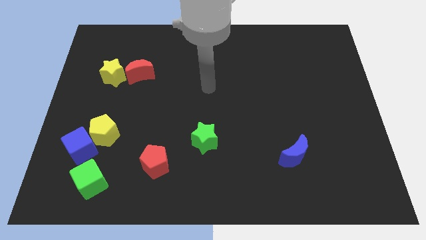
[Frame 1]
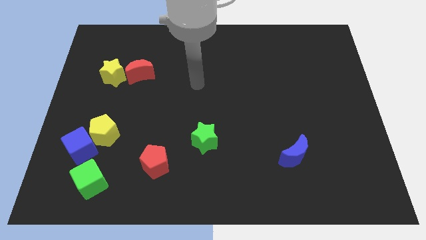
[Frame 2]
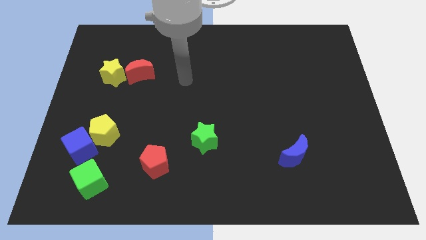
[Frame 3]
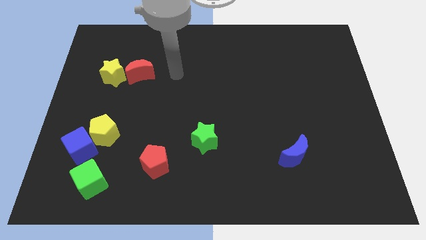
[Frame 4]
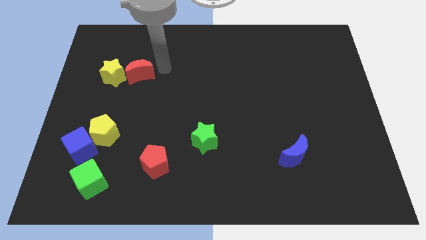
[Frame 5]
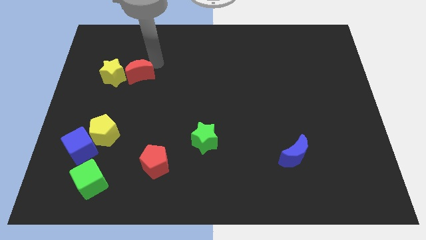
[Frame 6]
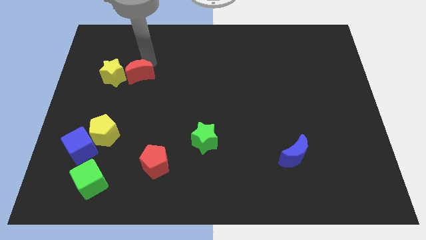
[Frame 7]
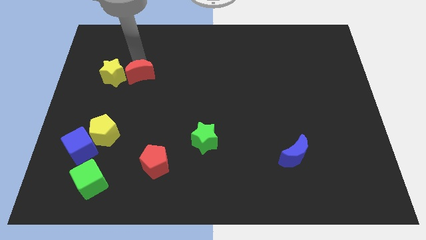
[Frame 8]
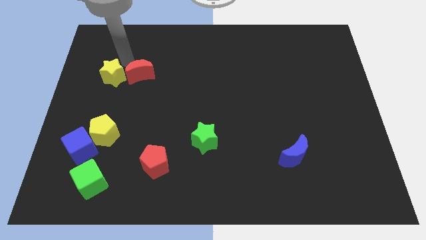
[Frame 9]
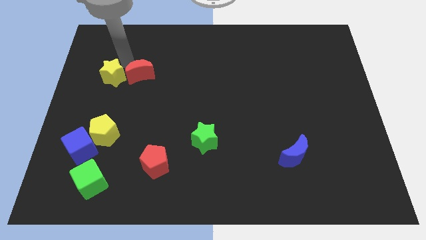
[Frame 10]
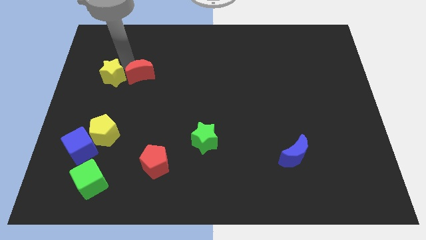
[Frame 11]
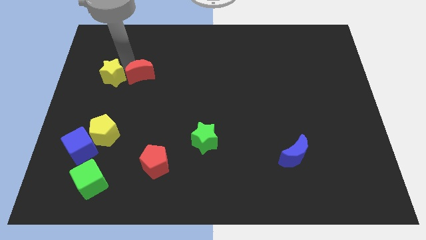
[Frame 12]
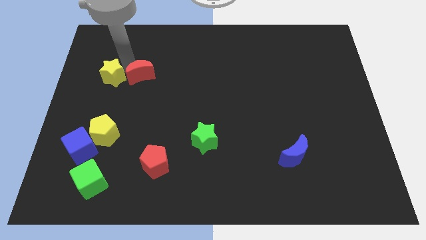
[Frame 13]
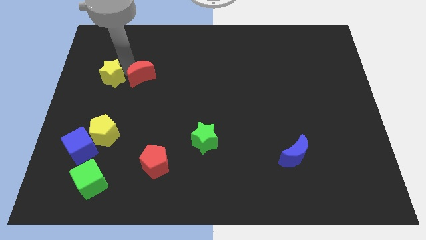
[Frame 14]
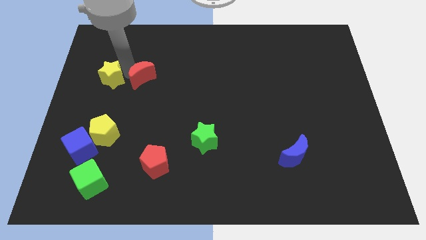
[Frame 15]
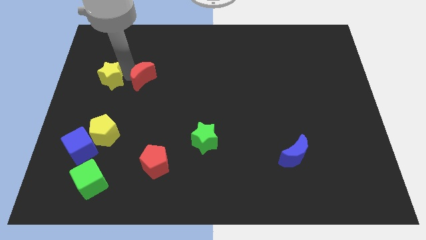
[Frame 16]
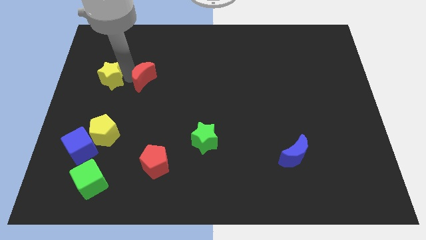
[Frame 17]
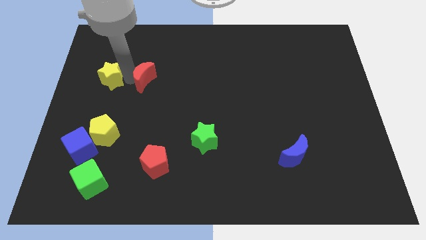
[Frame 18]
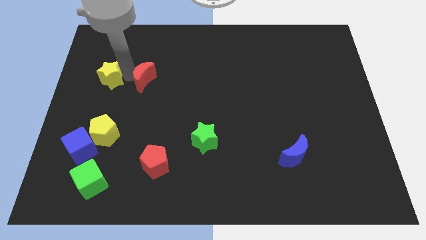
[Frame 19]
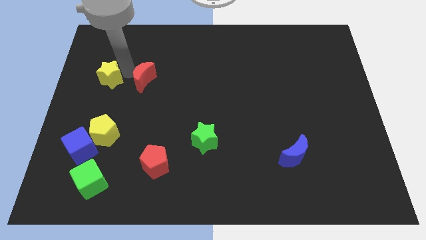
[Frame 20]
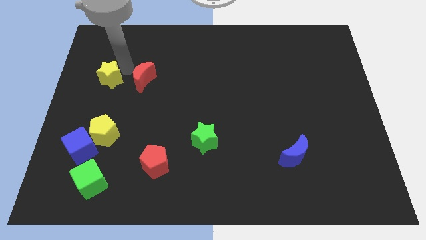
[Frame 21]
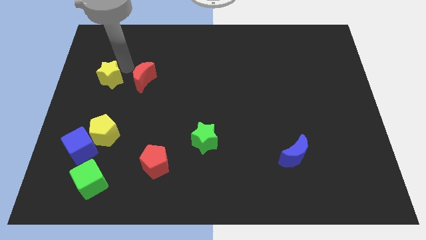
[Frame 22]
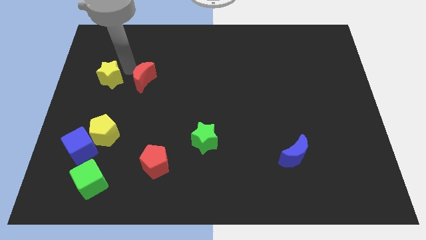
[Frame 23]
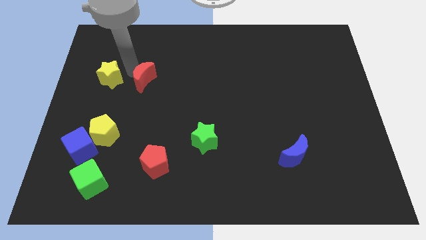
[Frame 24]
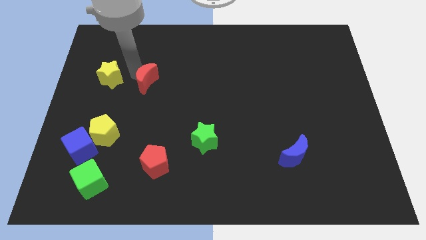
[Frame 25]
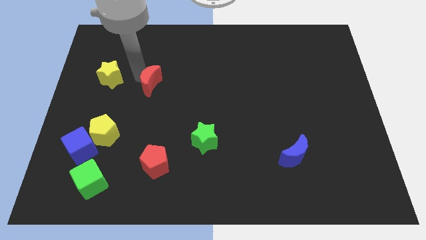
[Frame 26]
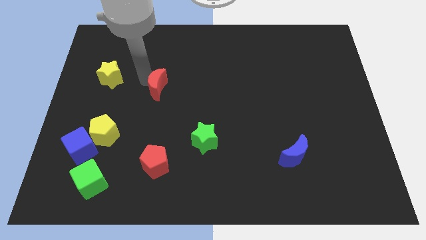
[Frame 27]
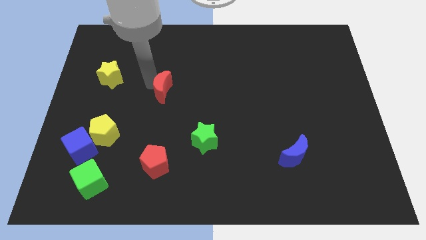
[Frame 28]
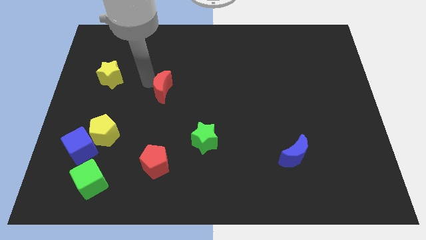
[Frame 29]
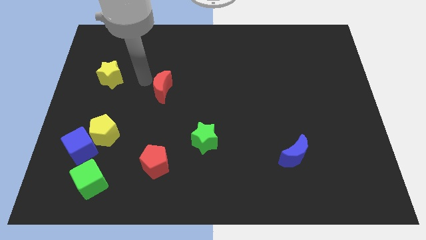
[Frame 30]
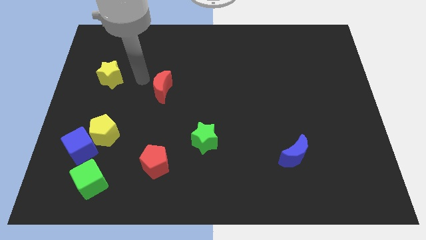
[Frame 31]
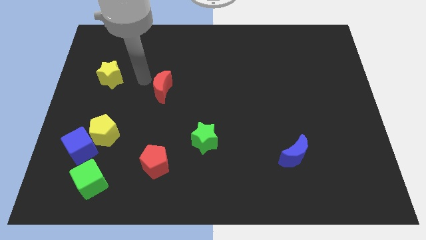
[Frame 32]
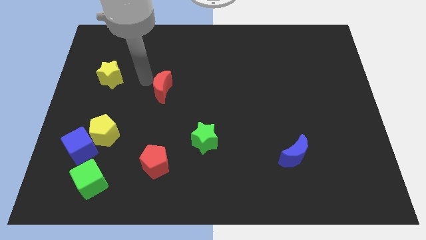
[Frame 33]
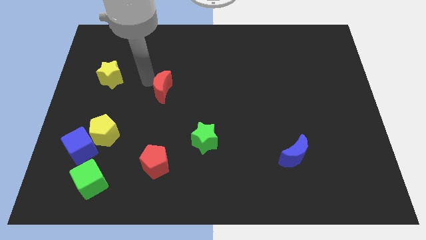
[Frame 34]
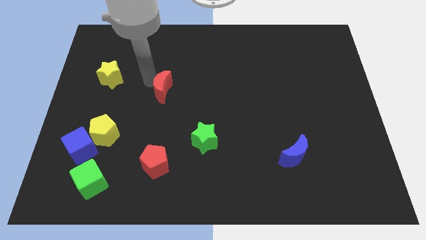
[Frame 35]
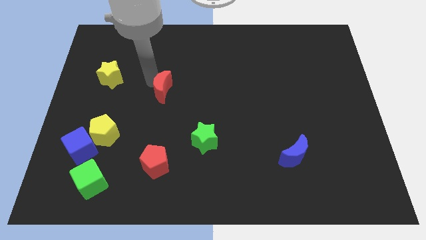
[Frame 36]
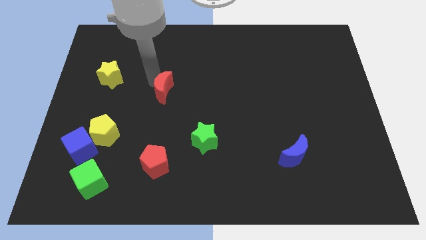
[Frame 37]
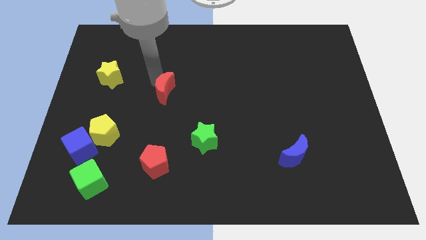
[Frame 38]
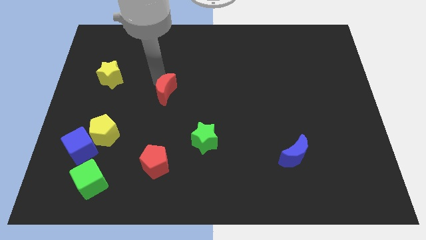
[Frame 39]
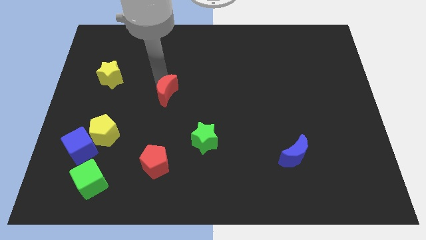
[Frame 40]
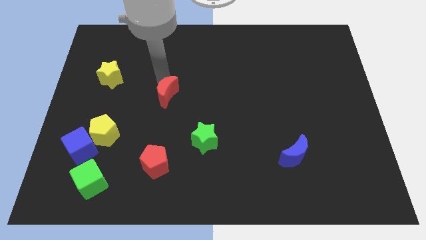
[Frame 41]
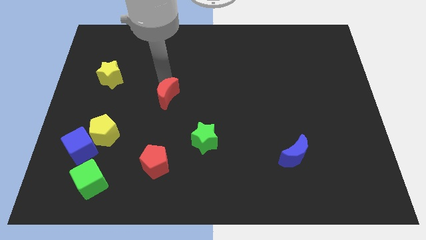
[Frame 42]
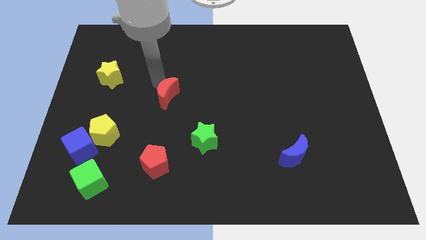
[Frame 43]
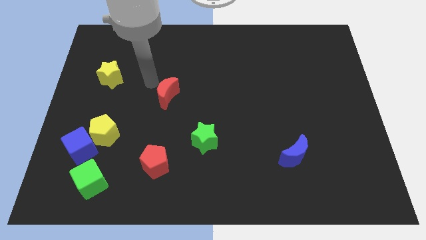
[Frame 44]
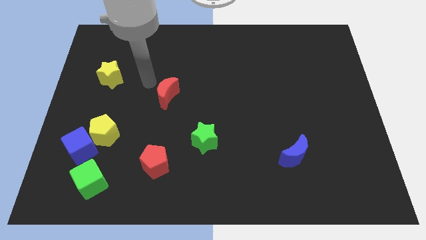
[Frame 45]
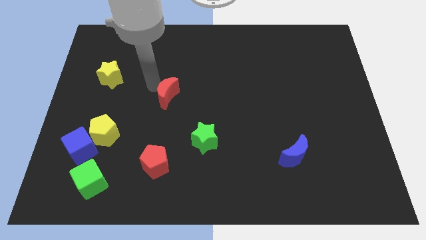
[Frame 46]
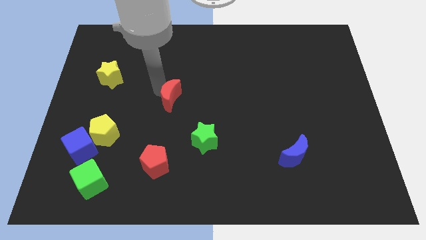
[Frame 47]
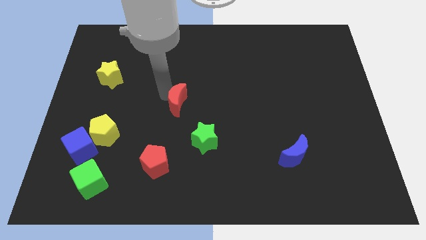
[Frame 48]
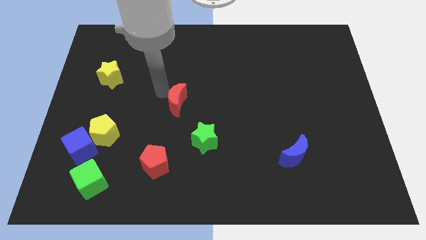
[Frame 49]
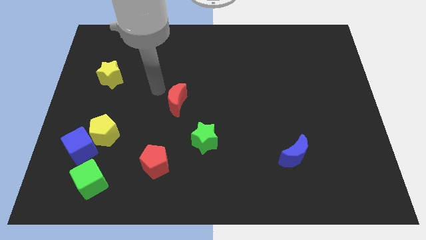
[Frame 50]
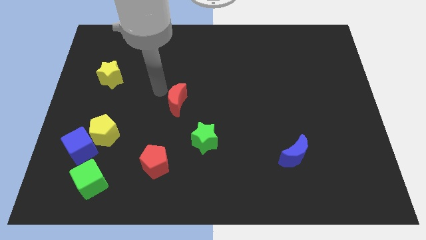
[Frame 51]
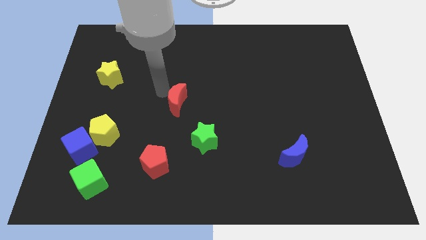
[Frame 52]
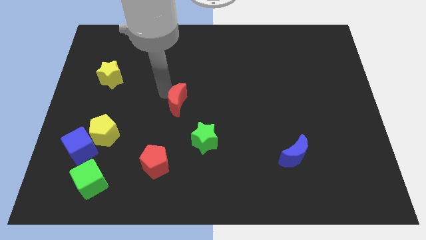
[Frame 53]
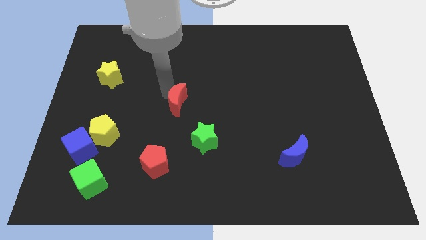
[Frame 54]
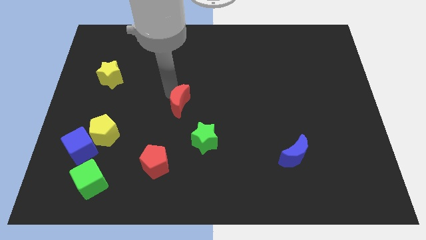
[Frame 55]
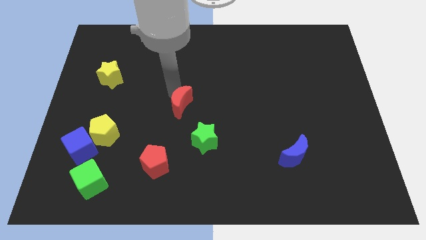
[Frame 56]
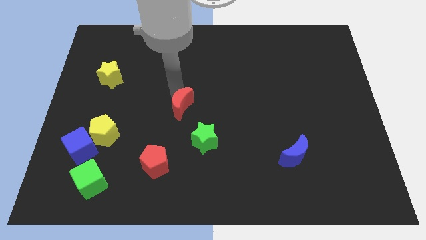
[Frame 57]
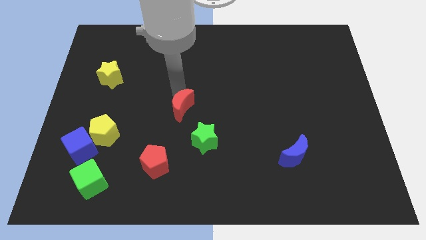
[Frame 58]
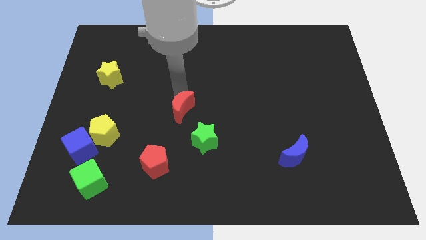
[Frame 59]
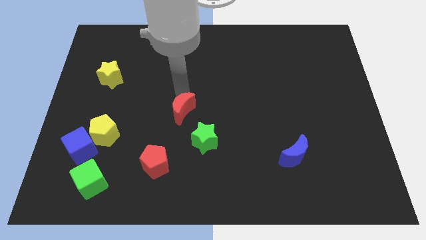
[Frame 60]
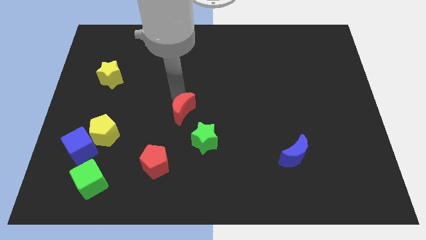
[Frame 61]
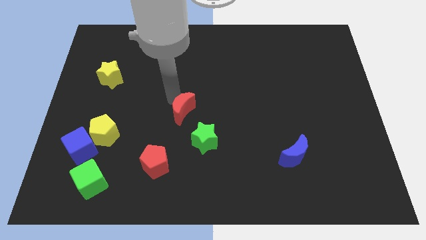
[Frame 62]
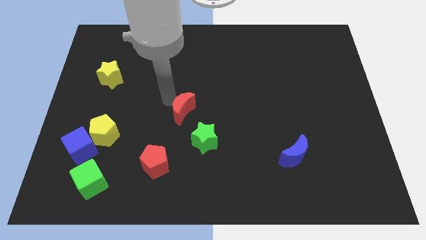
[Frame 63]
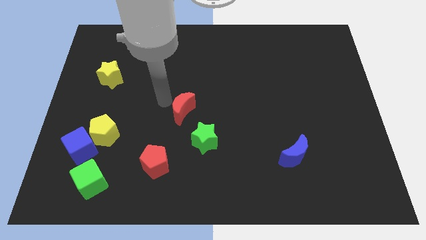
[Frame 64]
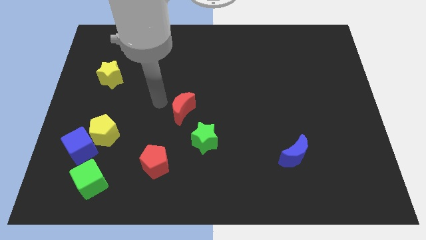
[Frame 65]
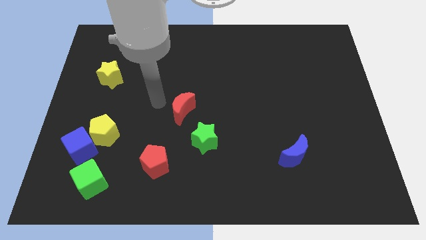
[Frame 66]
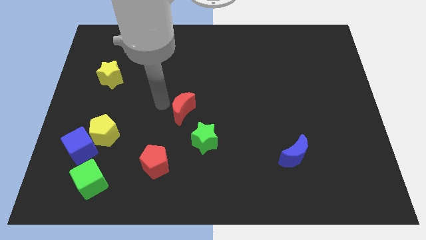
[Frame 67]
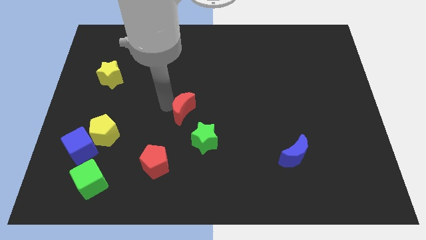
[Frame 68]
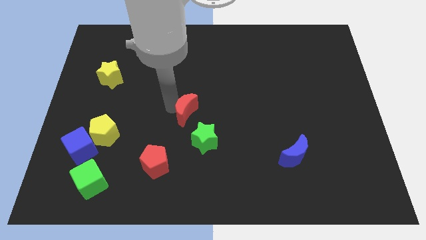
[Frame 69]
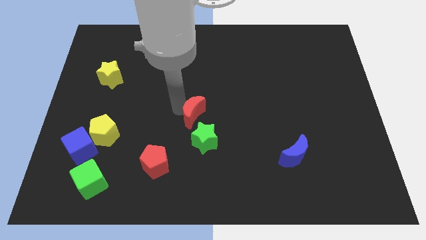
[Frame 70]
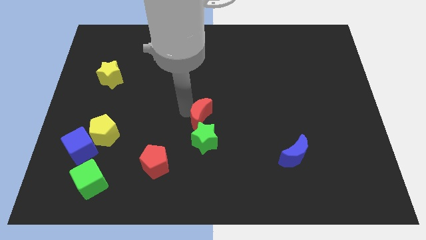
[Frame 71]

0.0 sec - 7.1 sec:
move the red moon down and then right

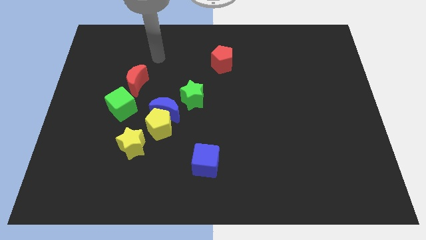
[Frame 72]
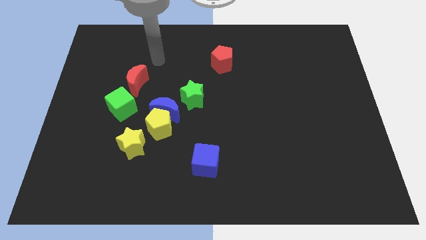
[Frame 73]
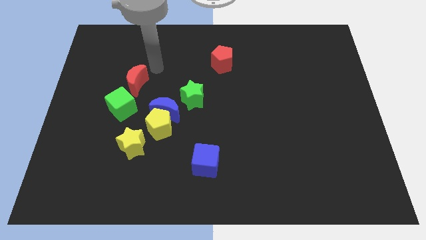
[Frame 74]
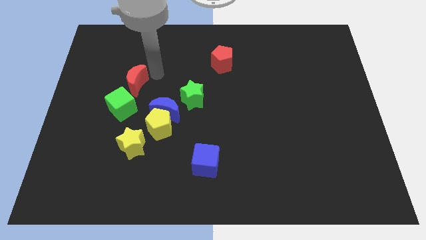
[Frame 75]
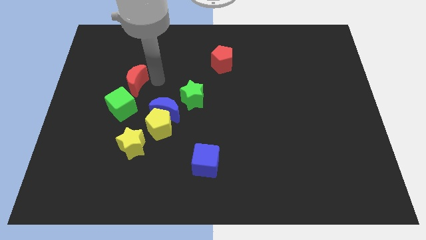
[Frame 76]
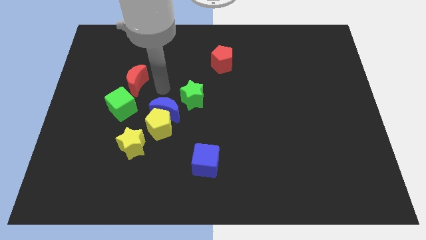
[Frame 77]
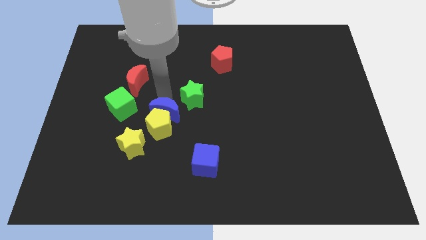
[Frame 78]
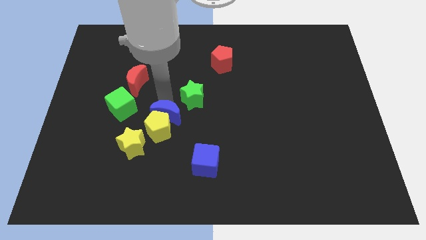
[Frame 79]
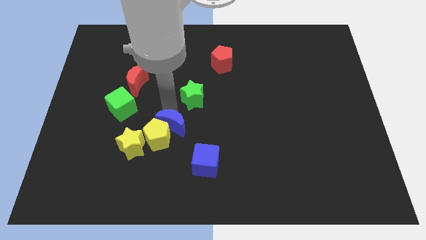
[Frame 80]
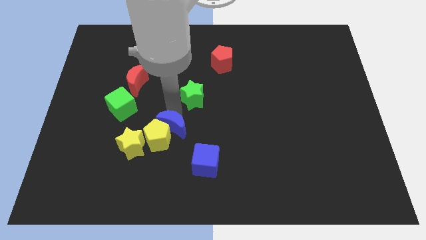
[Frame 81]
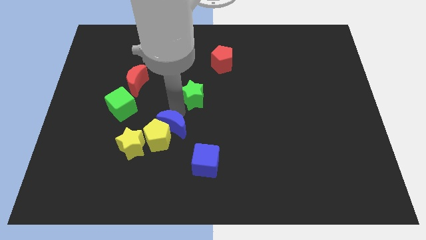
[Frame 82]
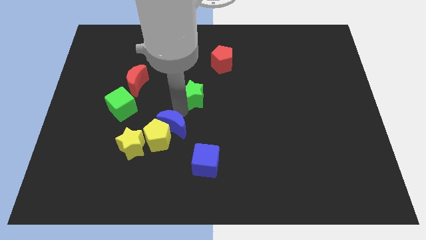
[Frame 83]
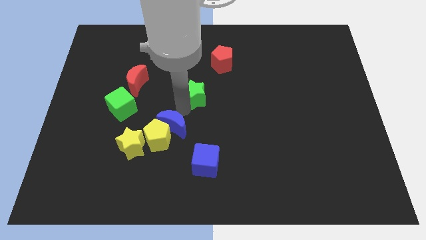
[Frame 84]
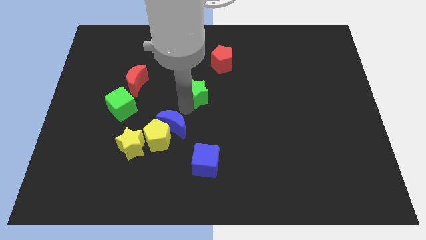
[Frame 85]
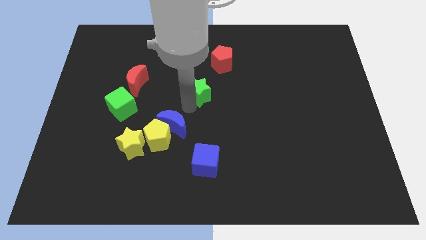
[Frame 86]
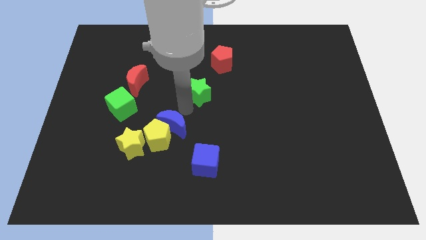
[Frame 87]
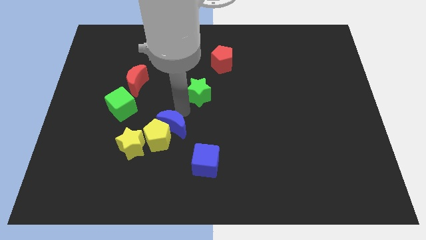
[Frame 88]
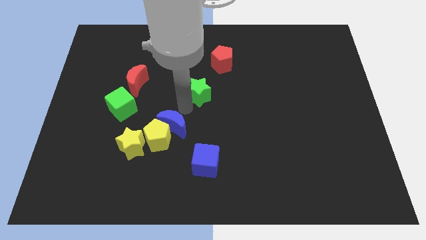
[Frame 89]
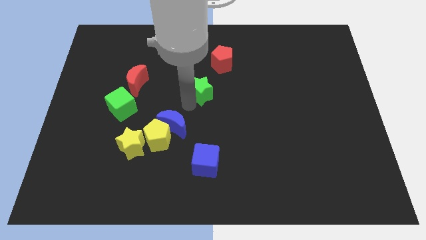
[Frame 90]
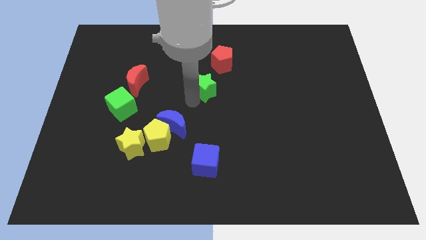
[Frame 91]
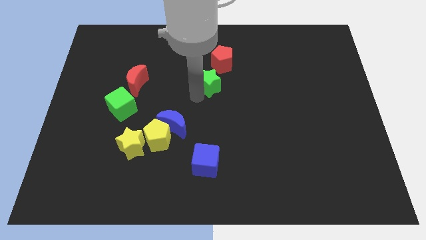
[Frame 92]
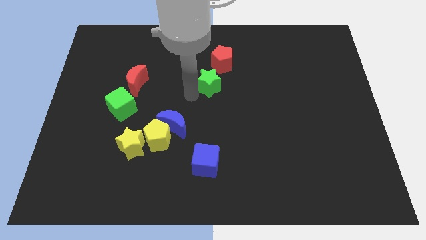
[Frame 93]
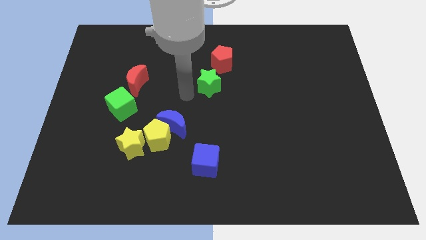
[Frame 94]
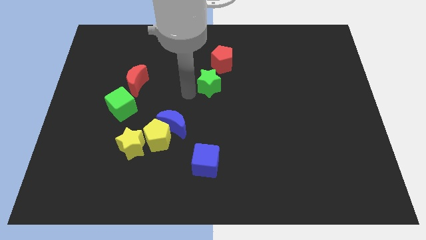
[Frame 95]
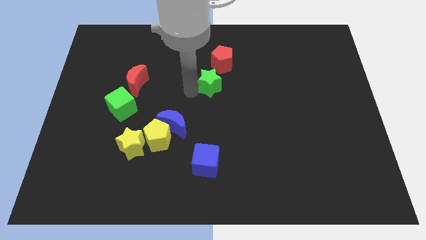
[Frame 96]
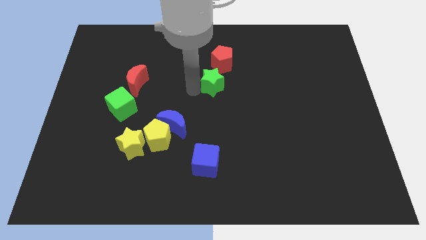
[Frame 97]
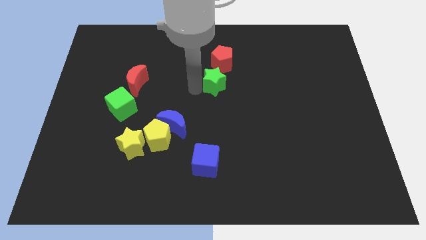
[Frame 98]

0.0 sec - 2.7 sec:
slightly push the green star up and to the right
